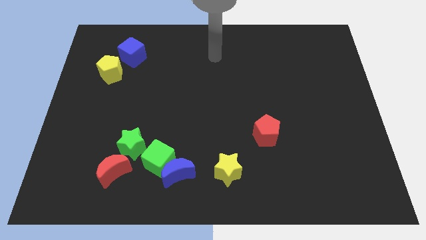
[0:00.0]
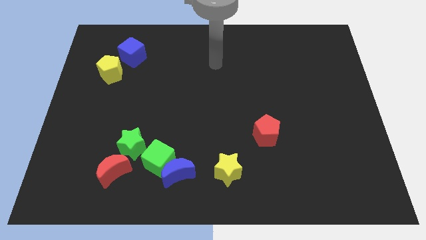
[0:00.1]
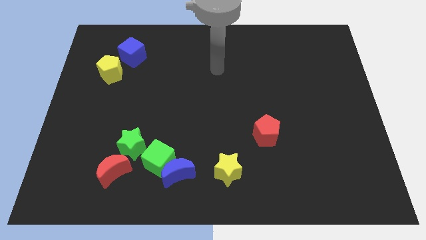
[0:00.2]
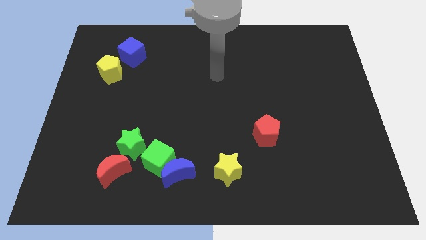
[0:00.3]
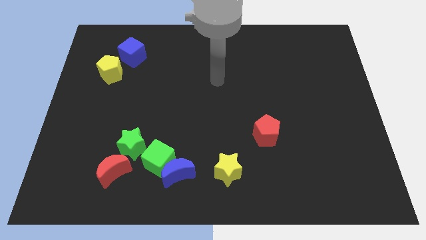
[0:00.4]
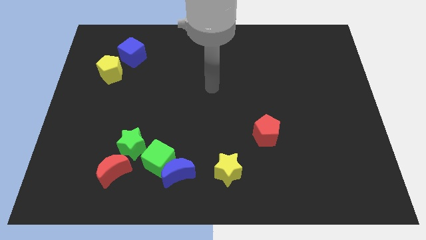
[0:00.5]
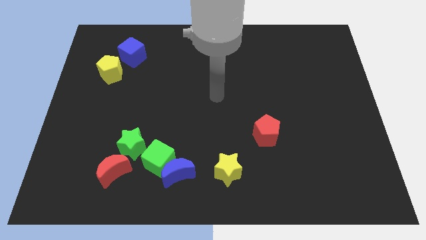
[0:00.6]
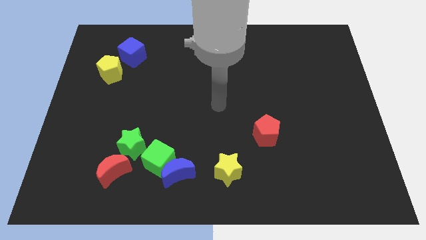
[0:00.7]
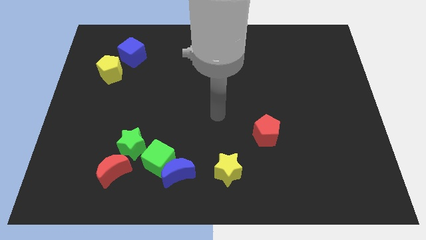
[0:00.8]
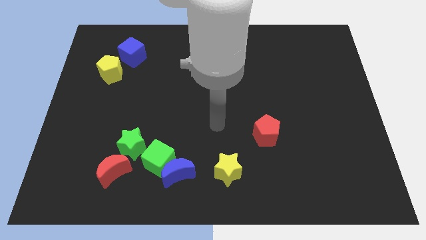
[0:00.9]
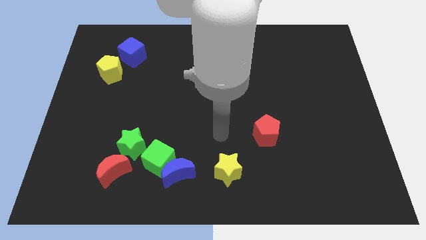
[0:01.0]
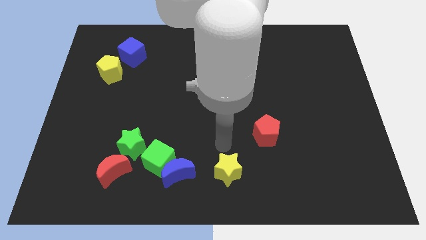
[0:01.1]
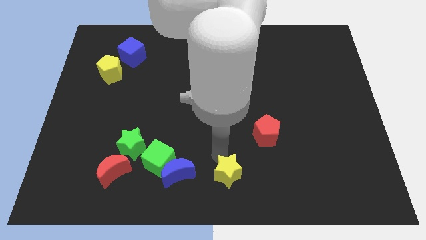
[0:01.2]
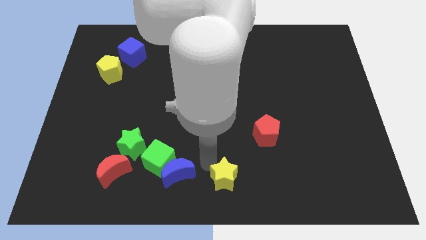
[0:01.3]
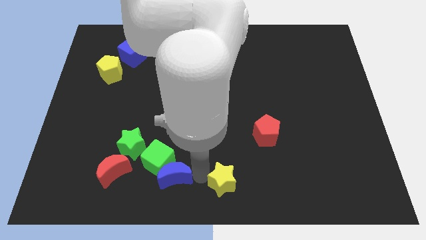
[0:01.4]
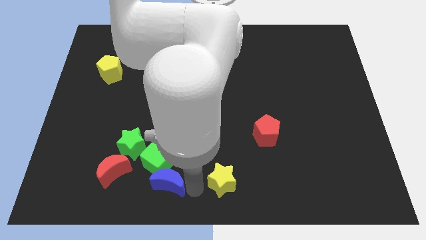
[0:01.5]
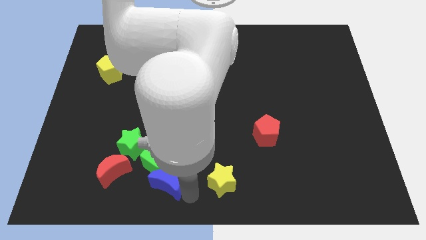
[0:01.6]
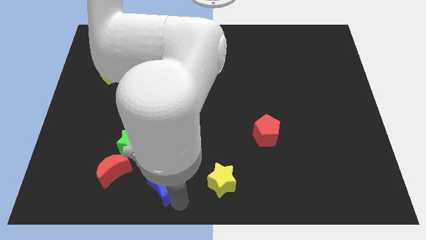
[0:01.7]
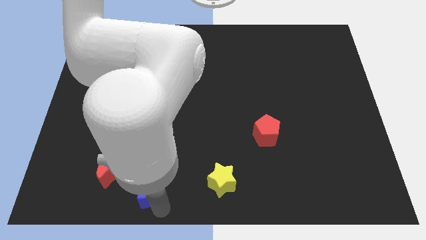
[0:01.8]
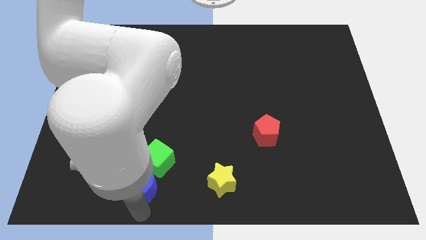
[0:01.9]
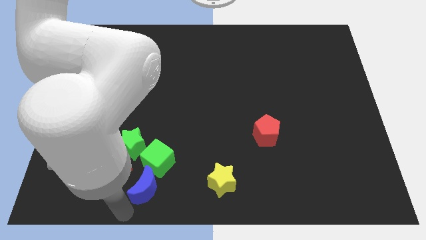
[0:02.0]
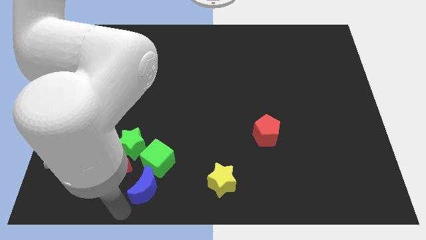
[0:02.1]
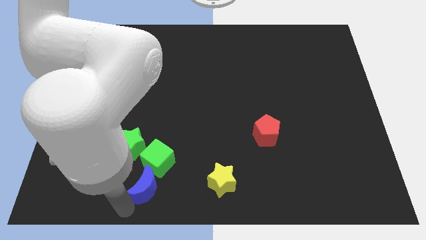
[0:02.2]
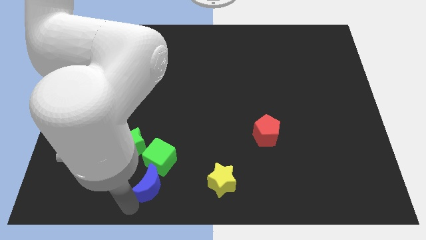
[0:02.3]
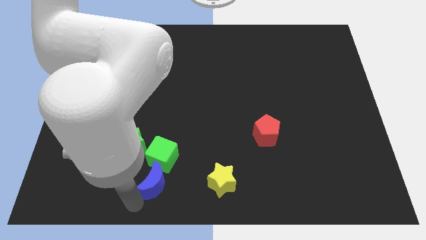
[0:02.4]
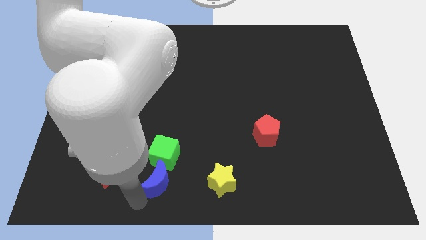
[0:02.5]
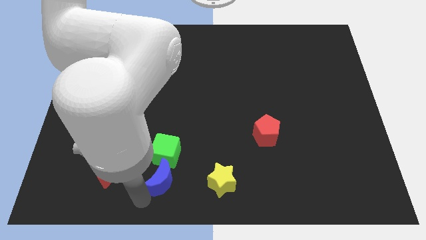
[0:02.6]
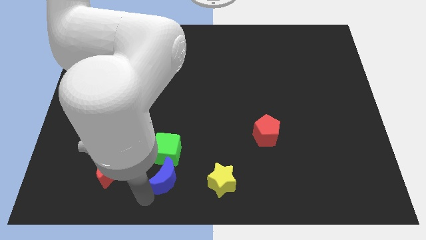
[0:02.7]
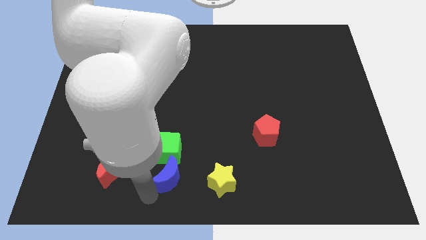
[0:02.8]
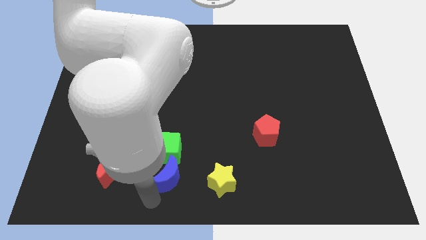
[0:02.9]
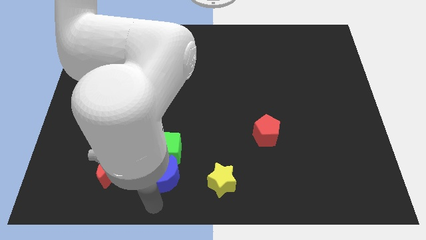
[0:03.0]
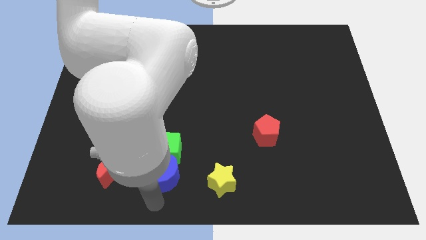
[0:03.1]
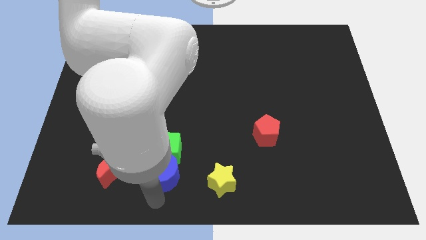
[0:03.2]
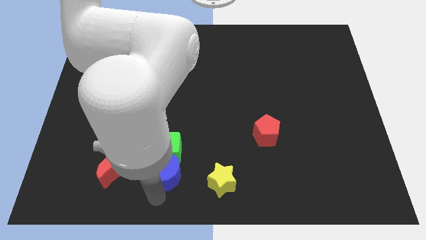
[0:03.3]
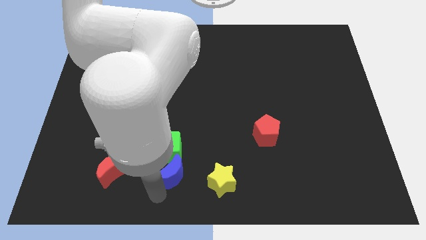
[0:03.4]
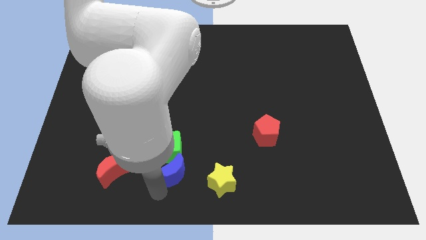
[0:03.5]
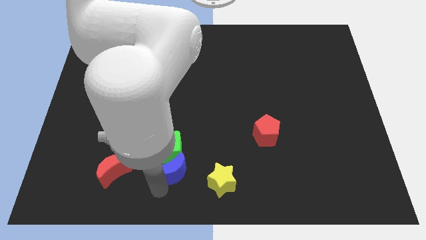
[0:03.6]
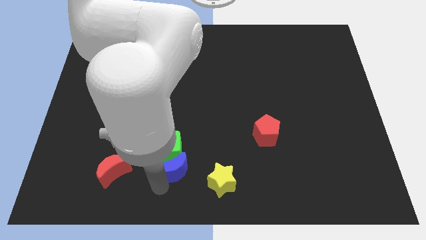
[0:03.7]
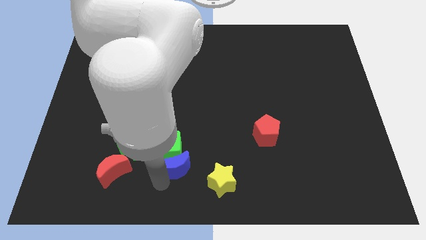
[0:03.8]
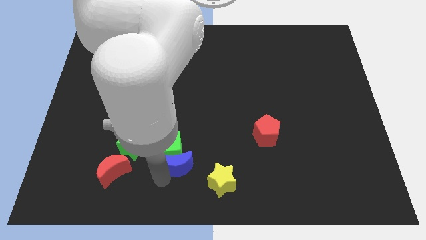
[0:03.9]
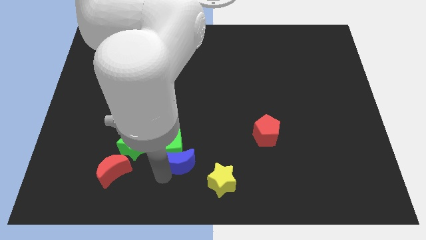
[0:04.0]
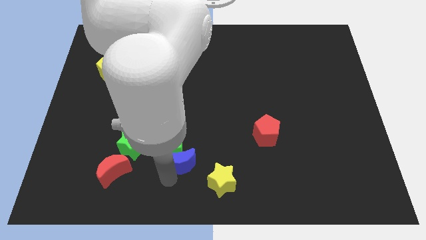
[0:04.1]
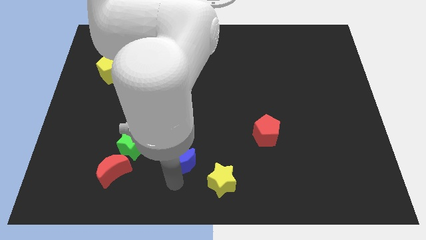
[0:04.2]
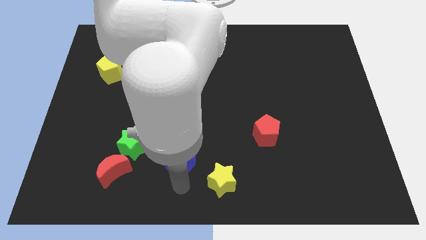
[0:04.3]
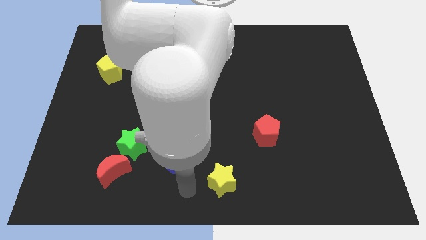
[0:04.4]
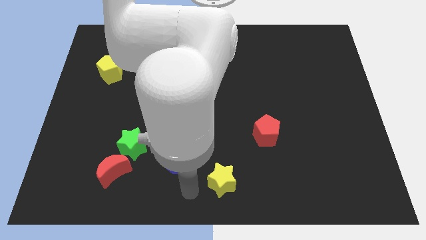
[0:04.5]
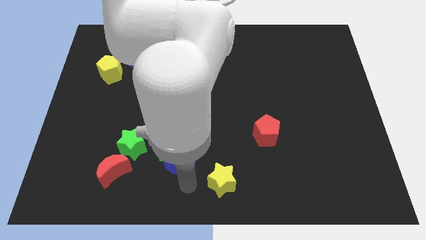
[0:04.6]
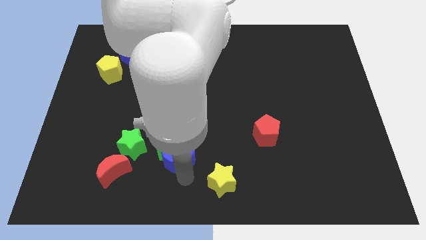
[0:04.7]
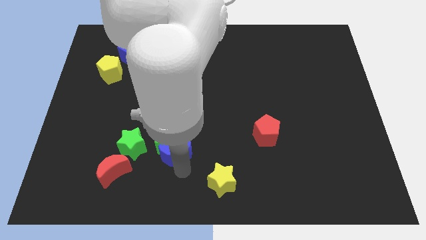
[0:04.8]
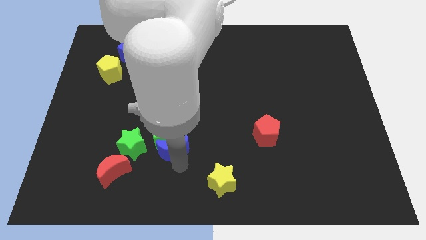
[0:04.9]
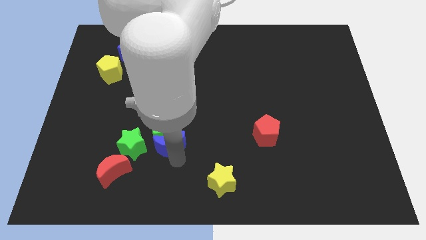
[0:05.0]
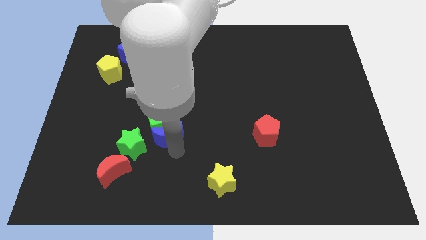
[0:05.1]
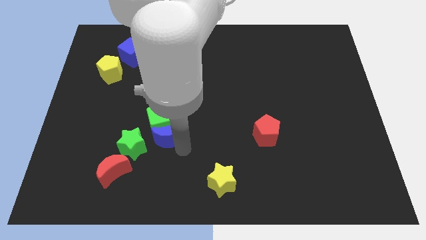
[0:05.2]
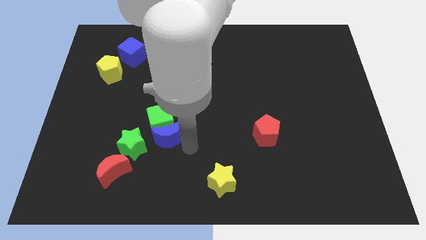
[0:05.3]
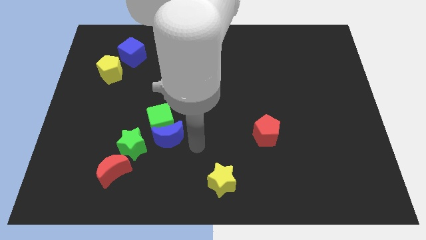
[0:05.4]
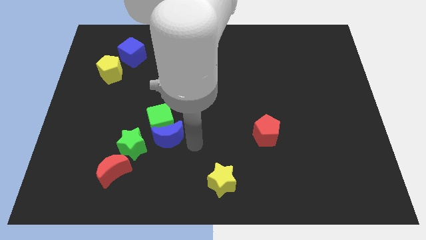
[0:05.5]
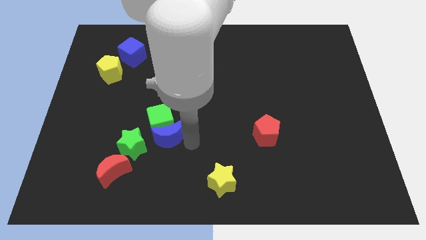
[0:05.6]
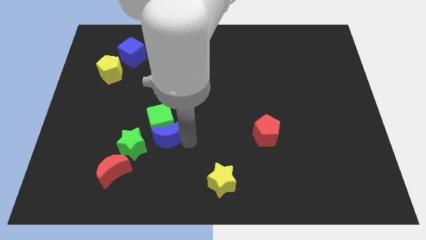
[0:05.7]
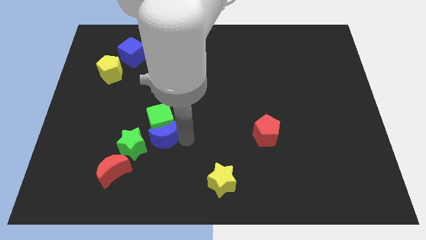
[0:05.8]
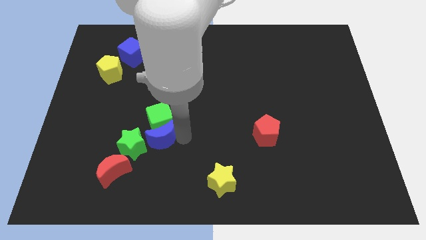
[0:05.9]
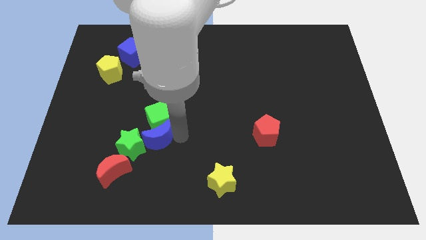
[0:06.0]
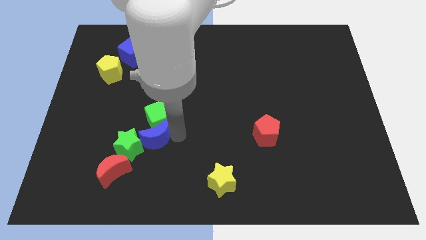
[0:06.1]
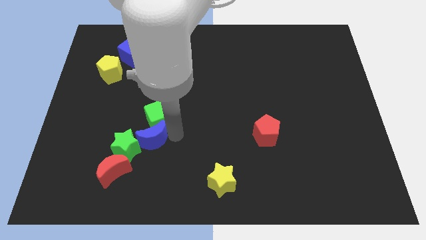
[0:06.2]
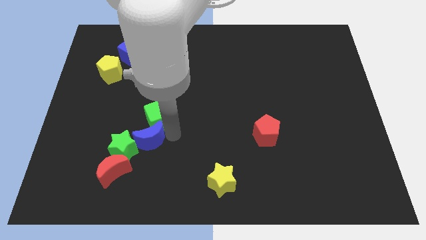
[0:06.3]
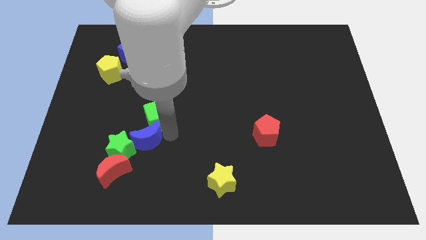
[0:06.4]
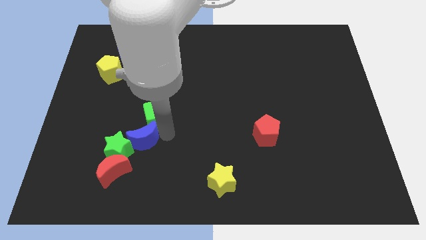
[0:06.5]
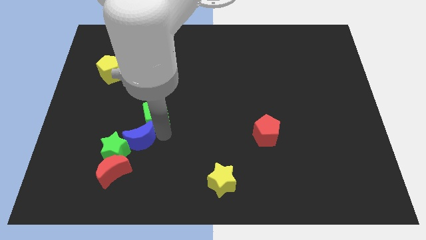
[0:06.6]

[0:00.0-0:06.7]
put the blue moon above the red moon

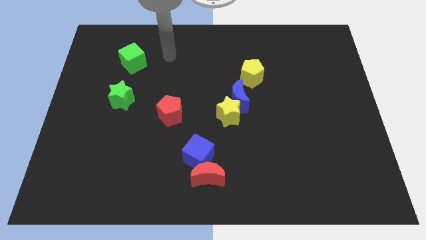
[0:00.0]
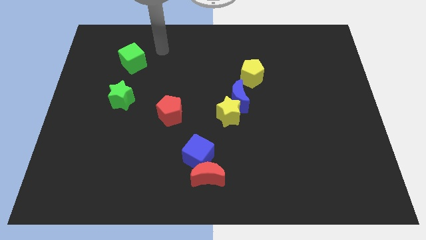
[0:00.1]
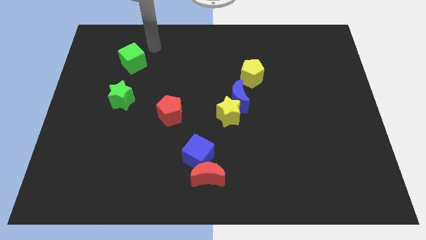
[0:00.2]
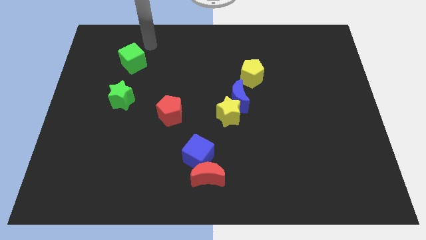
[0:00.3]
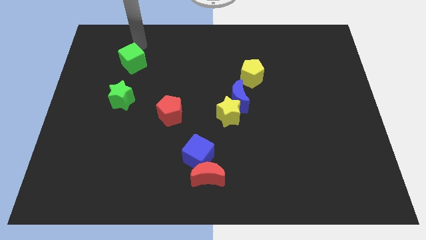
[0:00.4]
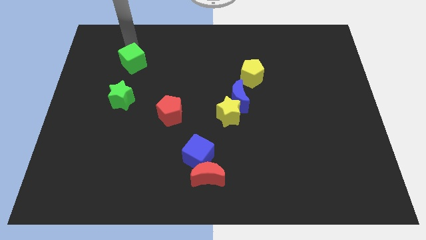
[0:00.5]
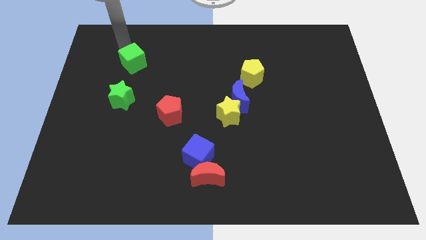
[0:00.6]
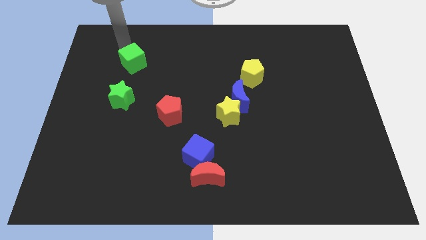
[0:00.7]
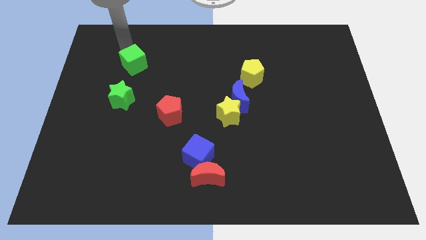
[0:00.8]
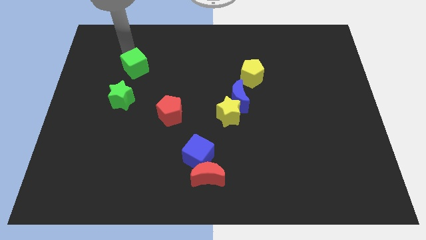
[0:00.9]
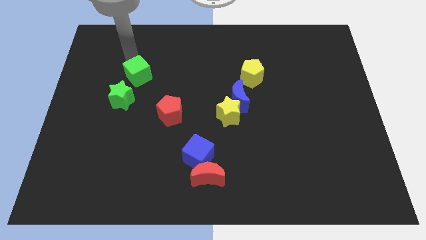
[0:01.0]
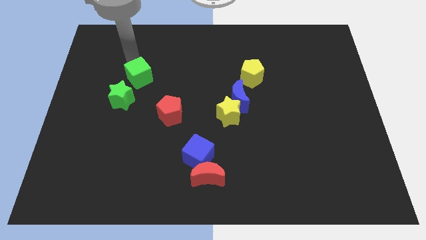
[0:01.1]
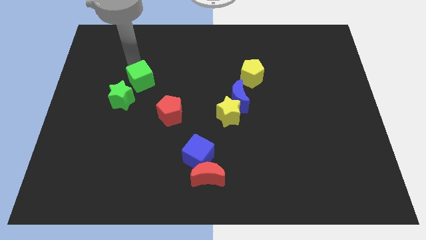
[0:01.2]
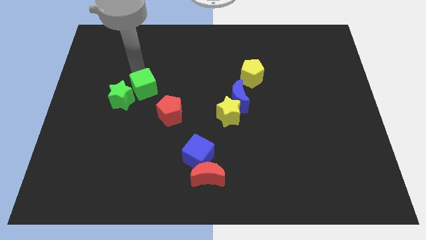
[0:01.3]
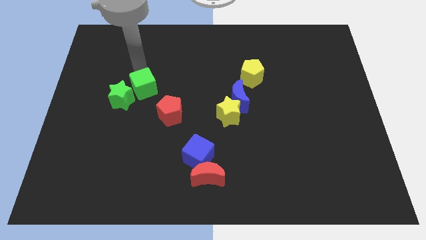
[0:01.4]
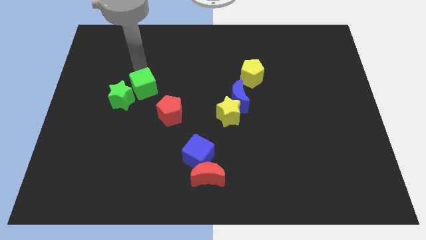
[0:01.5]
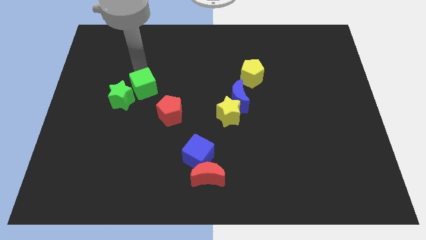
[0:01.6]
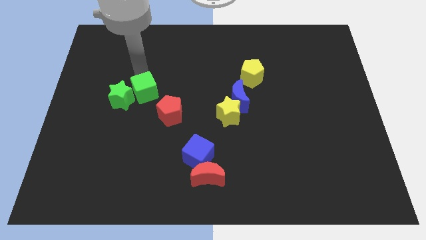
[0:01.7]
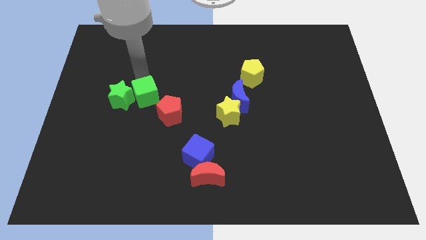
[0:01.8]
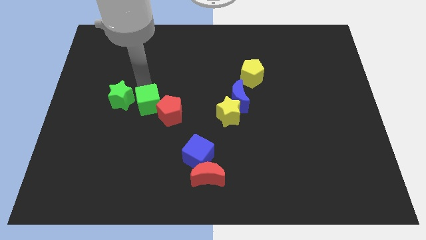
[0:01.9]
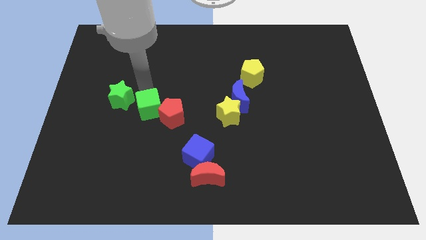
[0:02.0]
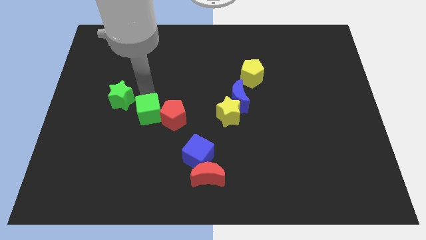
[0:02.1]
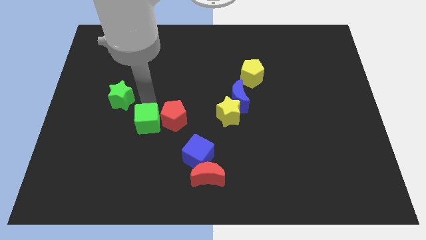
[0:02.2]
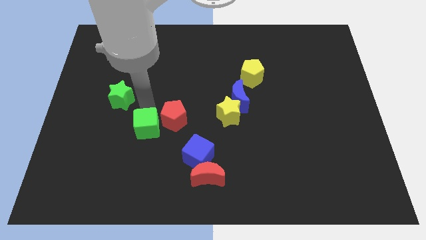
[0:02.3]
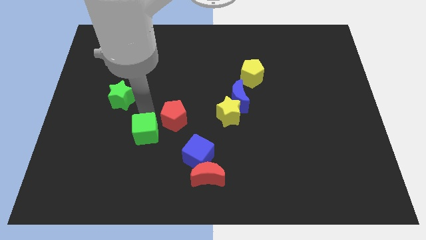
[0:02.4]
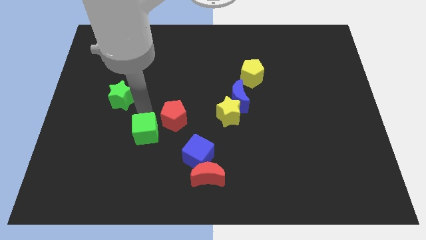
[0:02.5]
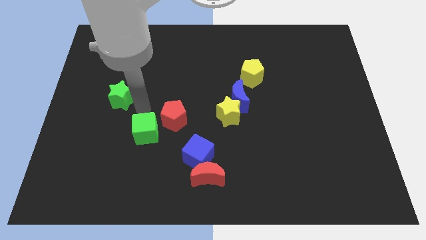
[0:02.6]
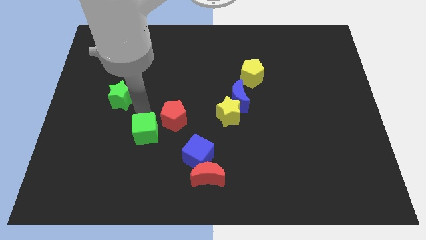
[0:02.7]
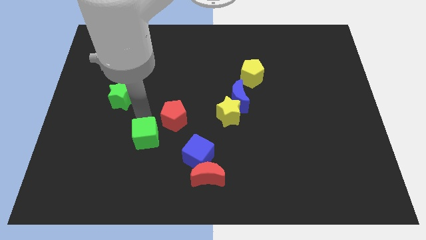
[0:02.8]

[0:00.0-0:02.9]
push the green cube left of the blue cube
